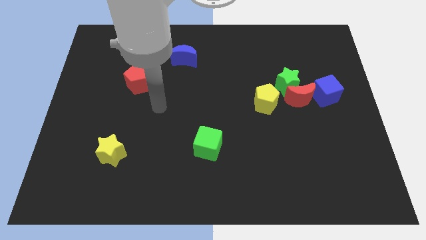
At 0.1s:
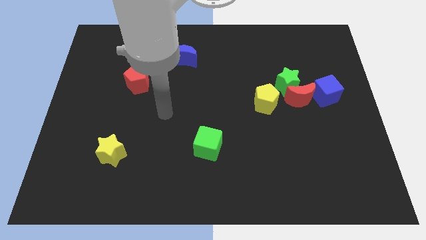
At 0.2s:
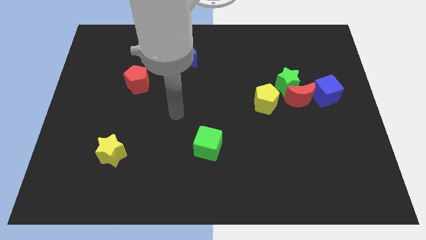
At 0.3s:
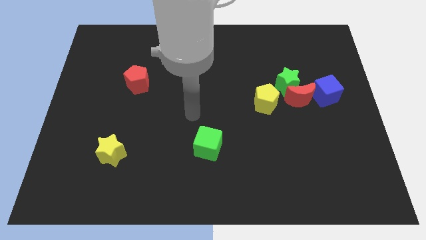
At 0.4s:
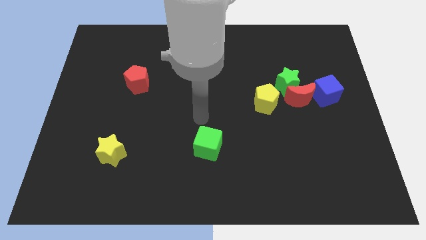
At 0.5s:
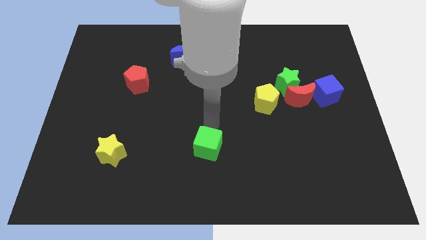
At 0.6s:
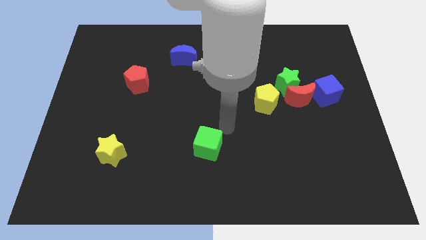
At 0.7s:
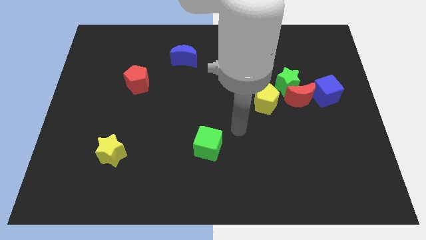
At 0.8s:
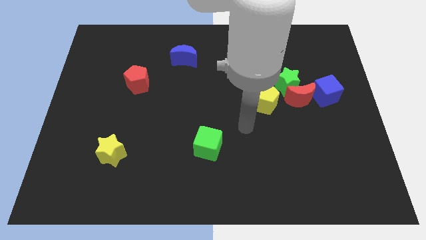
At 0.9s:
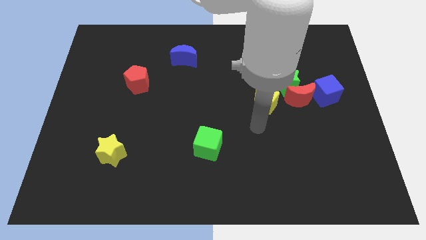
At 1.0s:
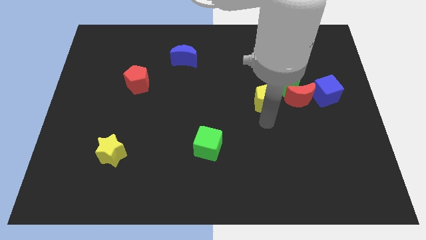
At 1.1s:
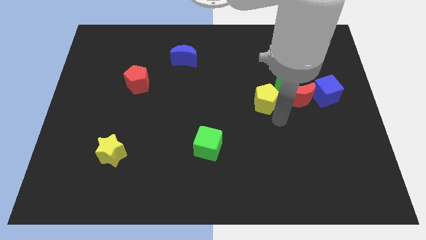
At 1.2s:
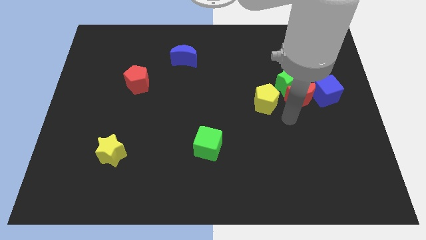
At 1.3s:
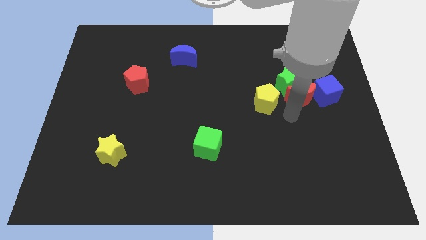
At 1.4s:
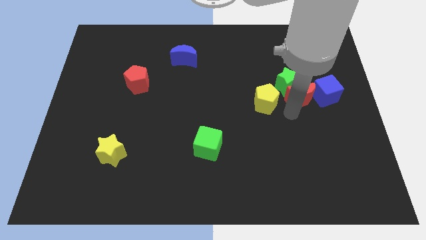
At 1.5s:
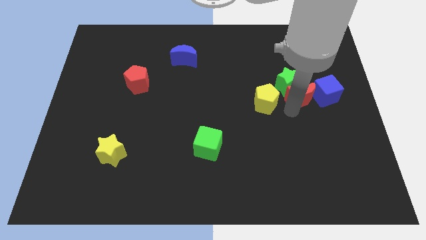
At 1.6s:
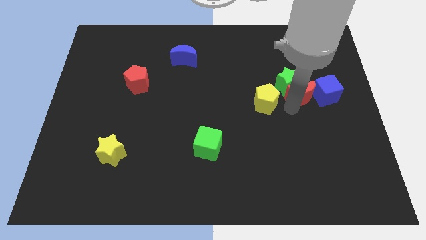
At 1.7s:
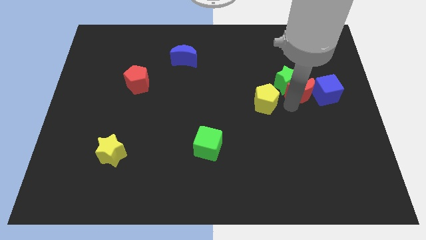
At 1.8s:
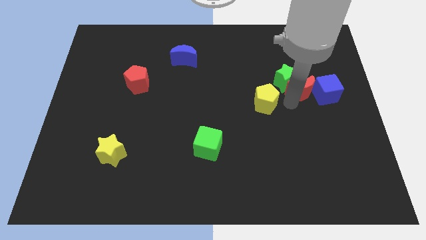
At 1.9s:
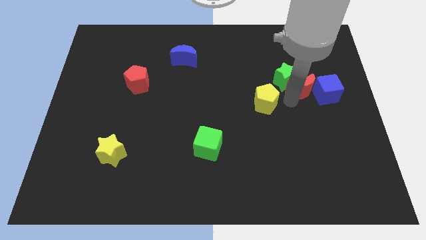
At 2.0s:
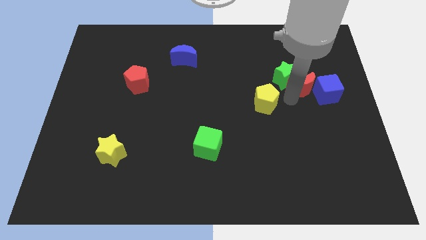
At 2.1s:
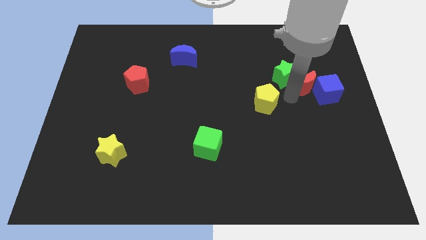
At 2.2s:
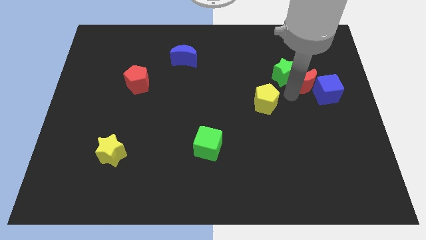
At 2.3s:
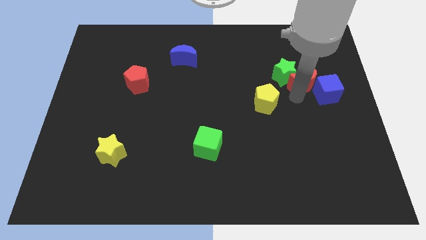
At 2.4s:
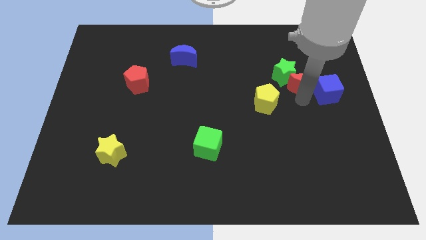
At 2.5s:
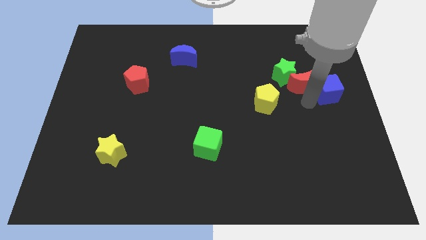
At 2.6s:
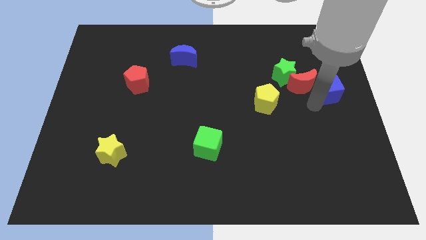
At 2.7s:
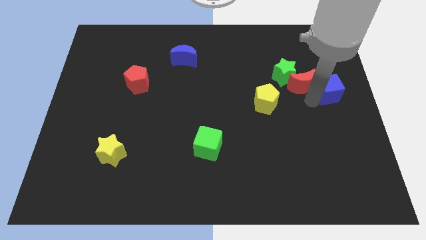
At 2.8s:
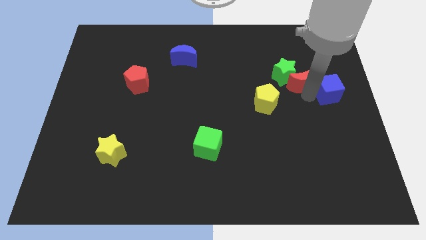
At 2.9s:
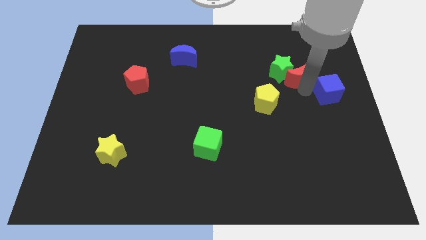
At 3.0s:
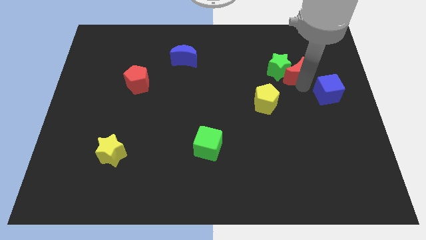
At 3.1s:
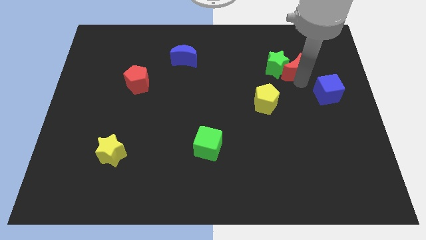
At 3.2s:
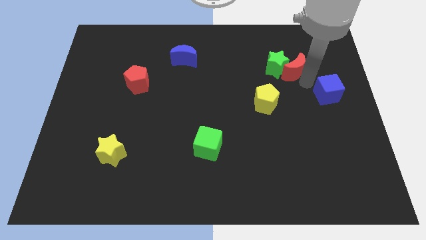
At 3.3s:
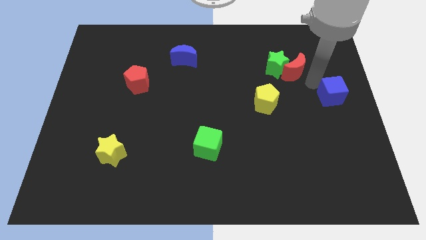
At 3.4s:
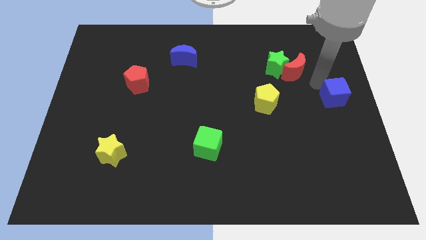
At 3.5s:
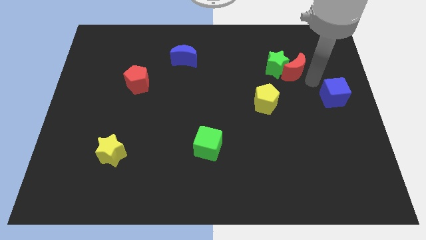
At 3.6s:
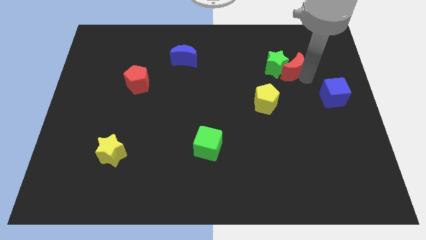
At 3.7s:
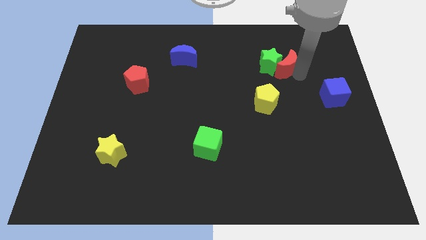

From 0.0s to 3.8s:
slide the red moon a bit upwards and then to the left

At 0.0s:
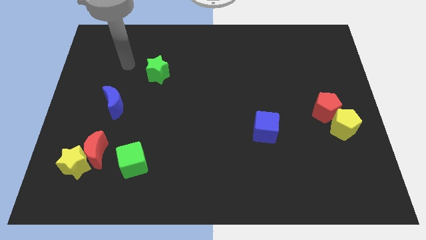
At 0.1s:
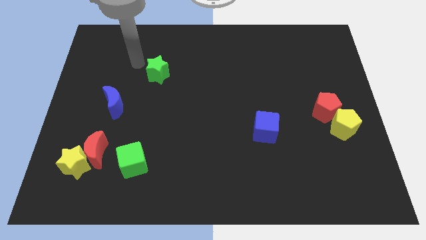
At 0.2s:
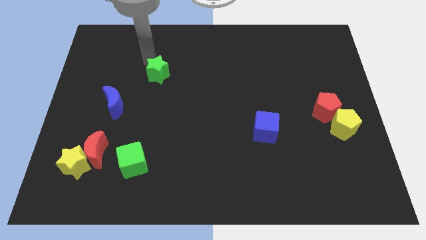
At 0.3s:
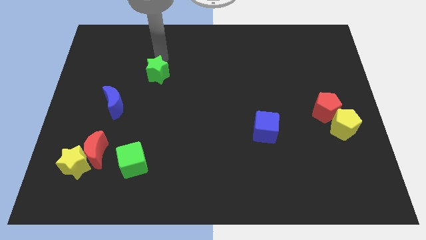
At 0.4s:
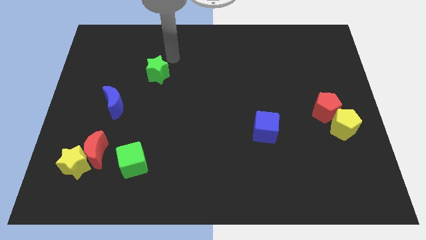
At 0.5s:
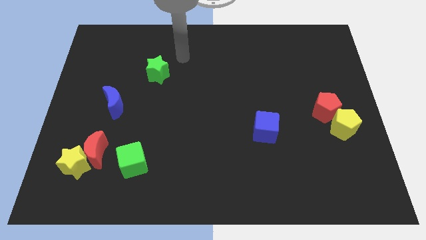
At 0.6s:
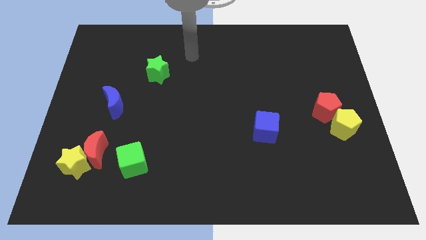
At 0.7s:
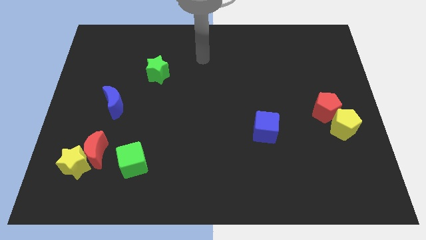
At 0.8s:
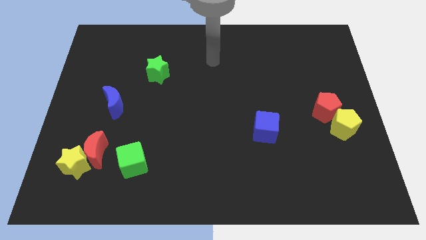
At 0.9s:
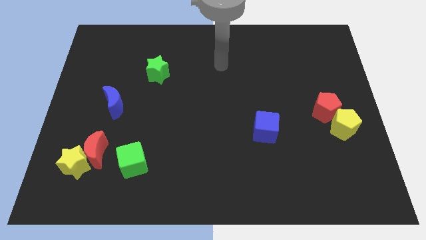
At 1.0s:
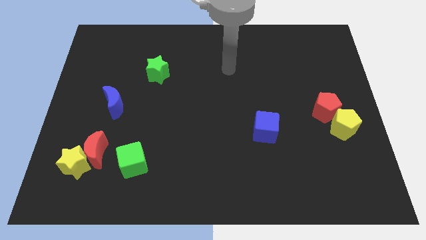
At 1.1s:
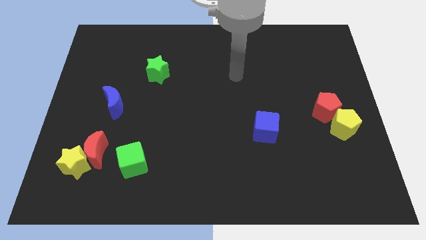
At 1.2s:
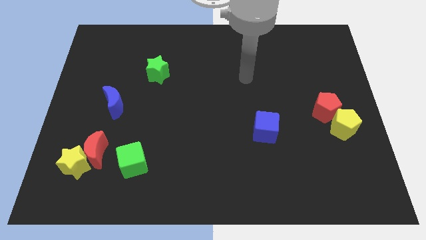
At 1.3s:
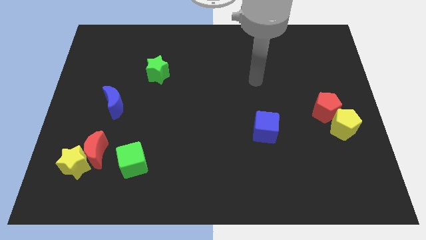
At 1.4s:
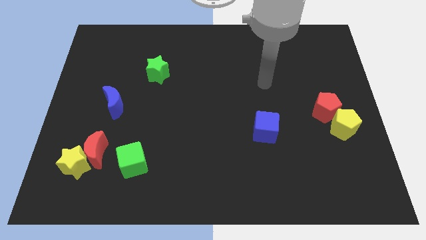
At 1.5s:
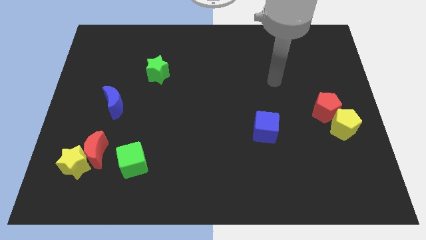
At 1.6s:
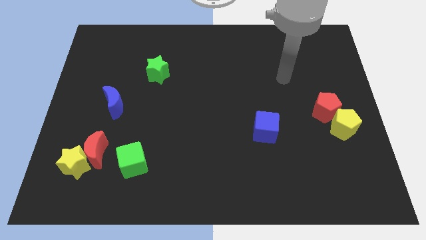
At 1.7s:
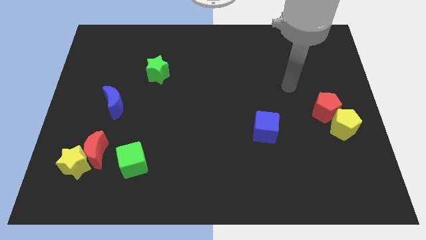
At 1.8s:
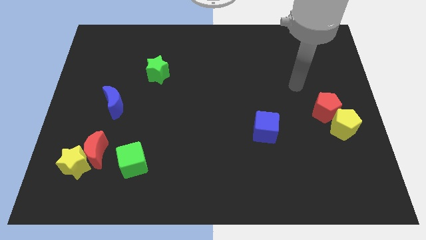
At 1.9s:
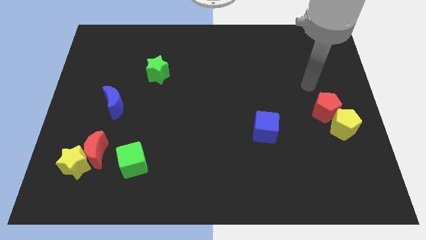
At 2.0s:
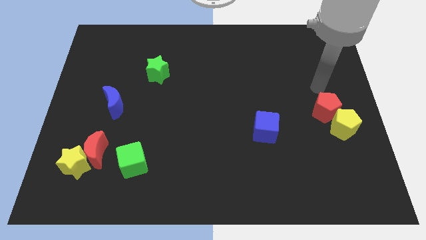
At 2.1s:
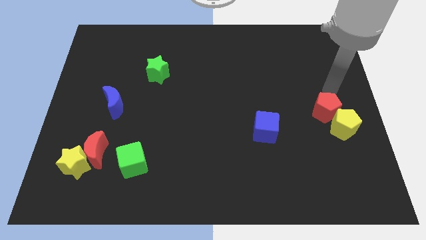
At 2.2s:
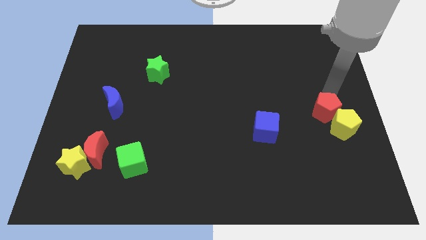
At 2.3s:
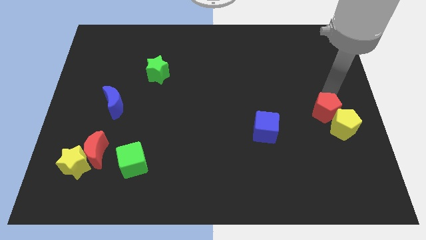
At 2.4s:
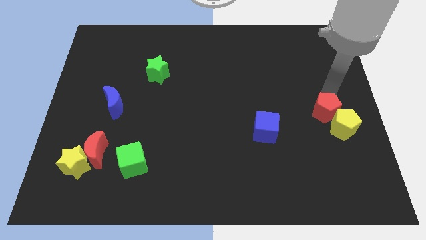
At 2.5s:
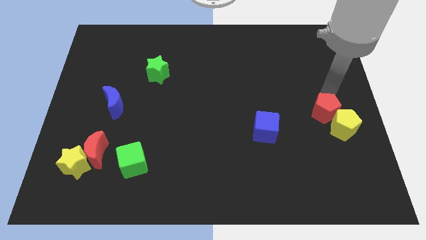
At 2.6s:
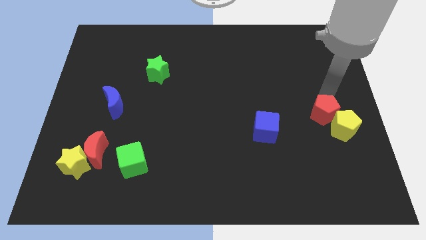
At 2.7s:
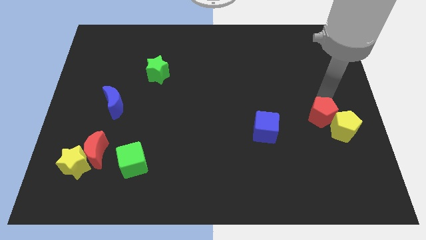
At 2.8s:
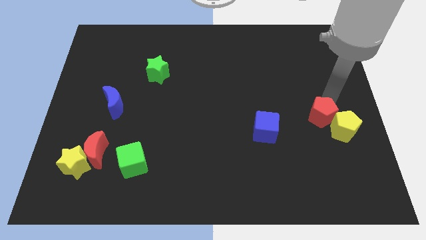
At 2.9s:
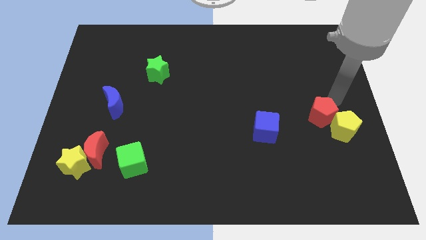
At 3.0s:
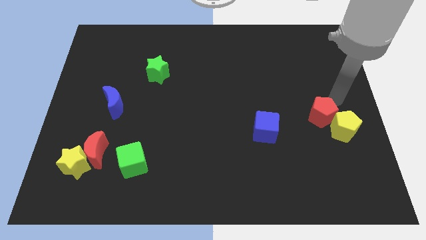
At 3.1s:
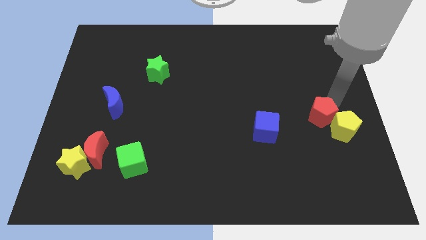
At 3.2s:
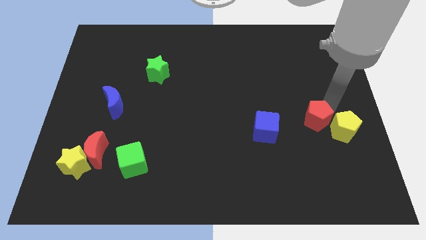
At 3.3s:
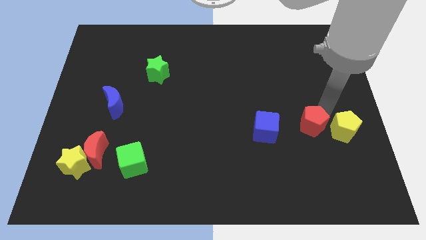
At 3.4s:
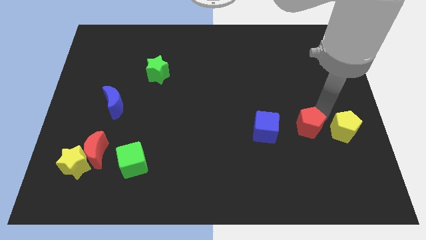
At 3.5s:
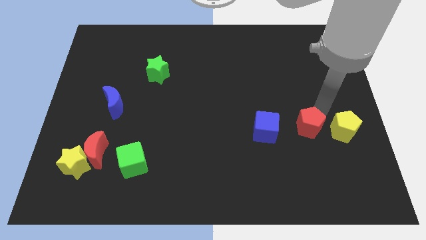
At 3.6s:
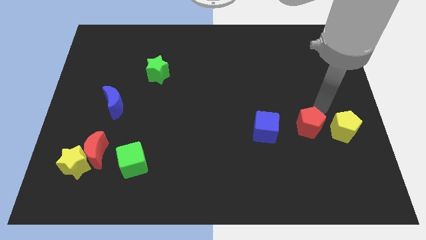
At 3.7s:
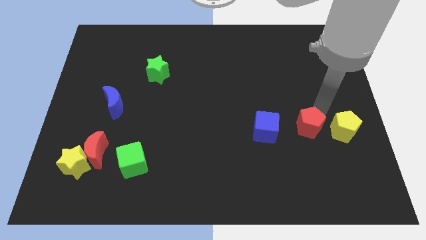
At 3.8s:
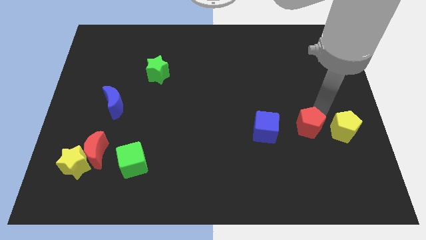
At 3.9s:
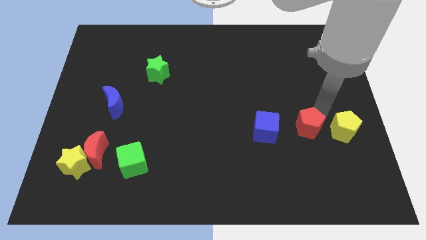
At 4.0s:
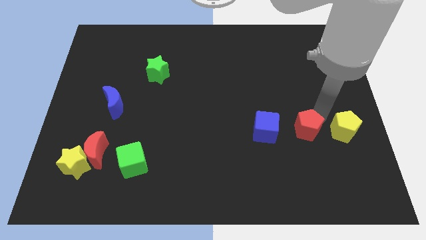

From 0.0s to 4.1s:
move the red pentagon a bit down and to the left diagonally

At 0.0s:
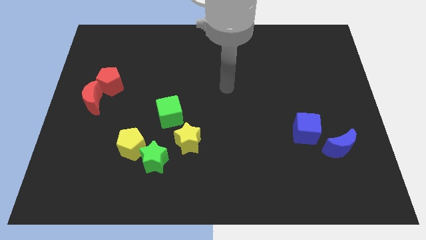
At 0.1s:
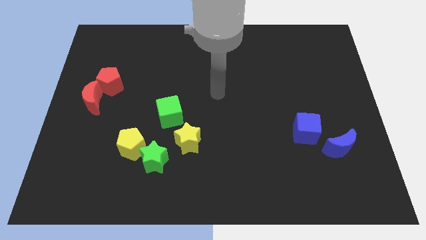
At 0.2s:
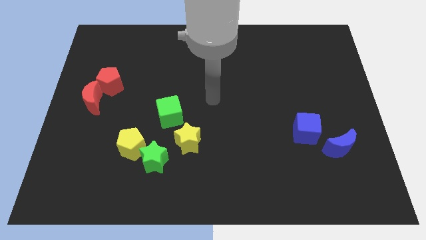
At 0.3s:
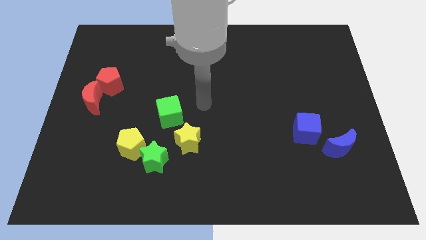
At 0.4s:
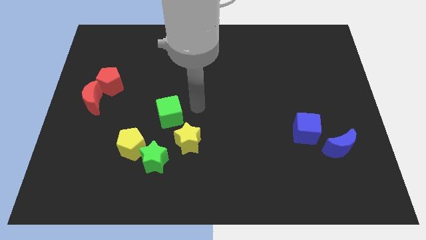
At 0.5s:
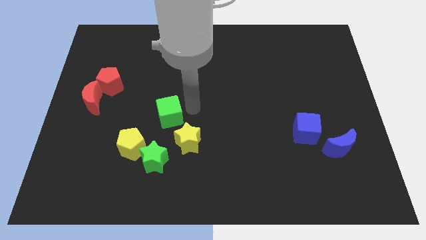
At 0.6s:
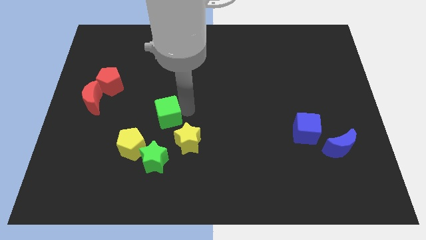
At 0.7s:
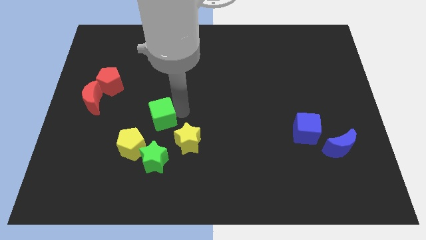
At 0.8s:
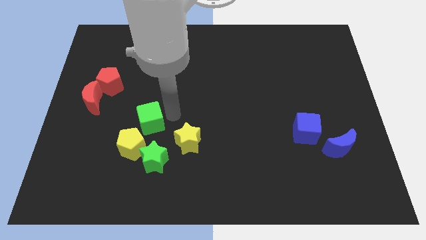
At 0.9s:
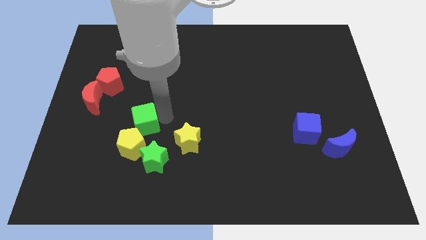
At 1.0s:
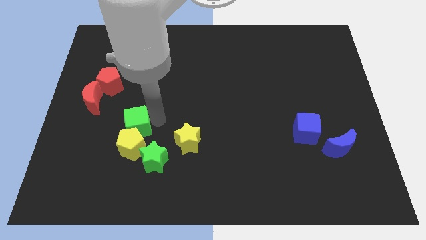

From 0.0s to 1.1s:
slide the green cube downwards and left diagonally a bit
